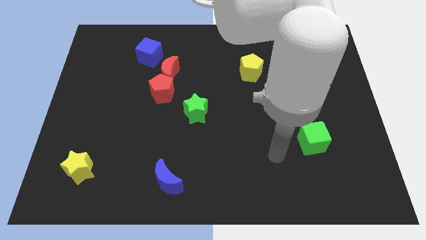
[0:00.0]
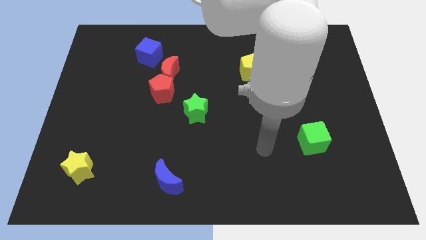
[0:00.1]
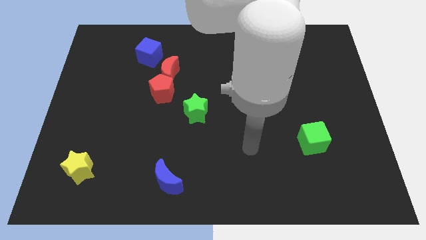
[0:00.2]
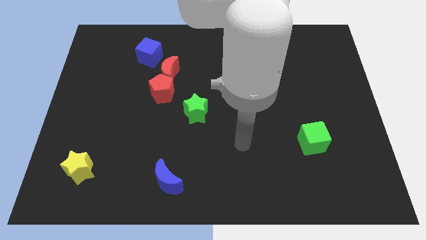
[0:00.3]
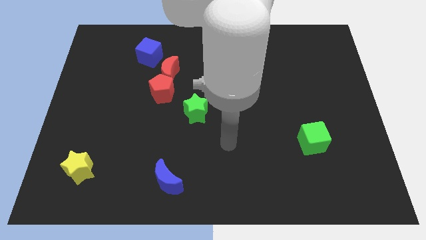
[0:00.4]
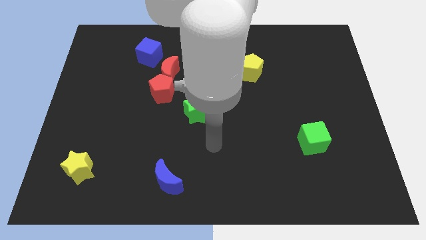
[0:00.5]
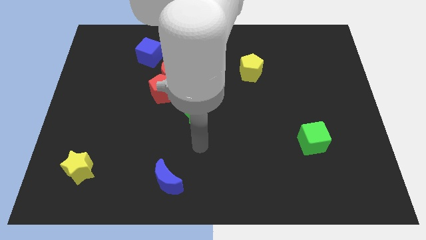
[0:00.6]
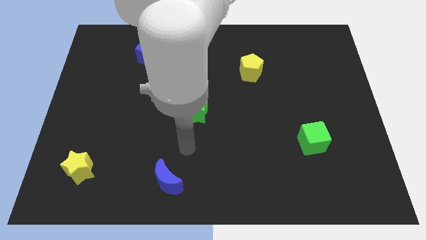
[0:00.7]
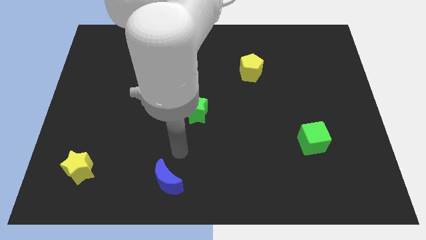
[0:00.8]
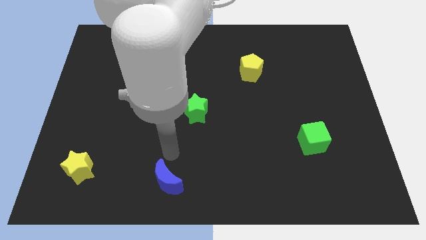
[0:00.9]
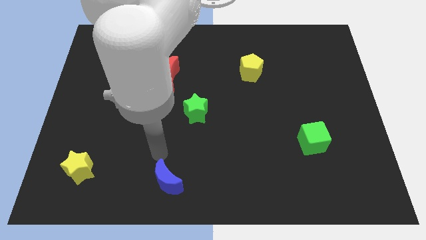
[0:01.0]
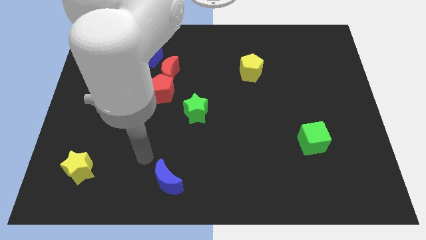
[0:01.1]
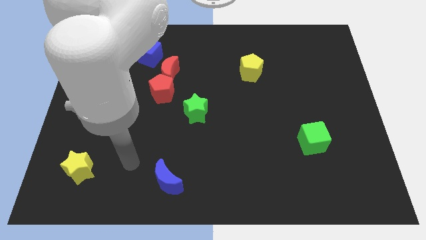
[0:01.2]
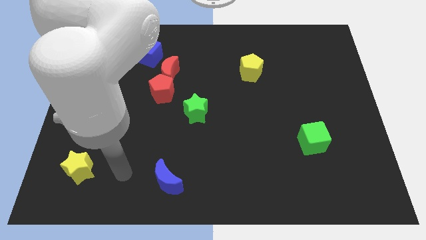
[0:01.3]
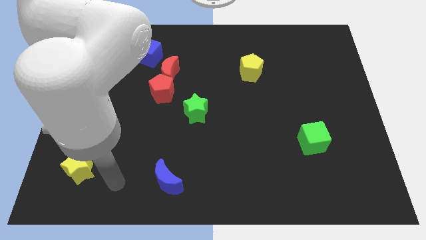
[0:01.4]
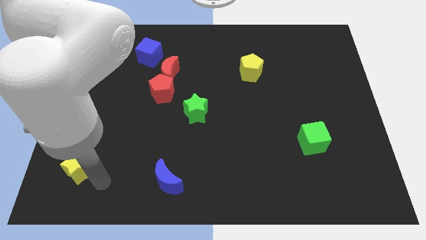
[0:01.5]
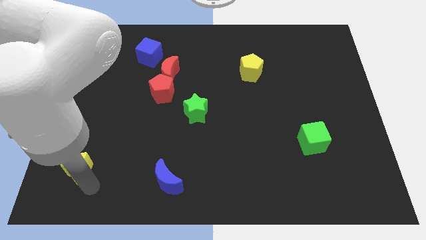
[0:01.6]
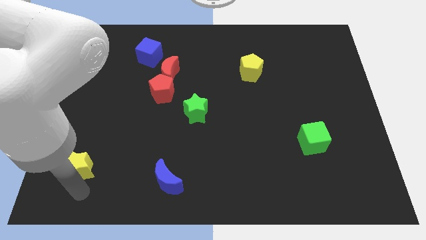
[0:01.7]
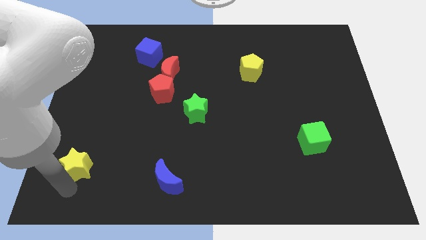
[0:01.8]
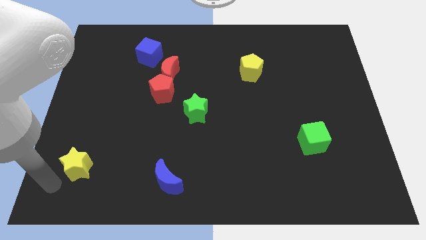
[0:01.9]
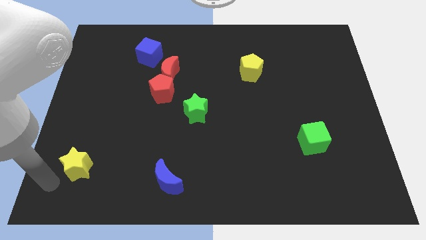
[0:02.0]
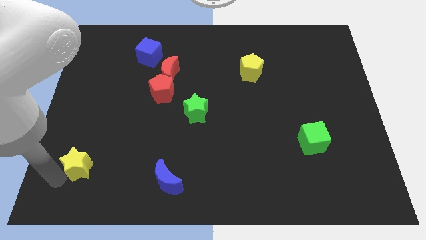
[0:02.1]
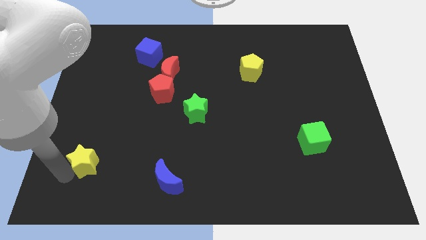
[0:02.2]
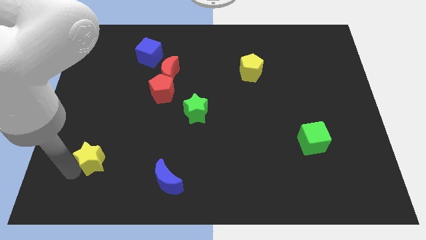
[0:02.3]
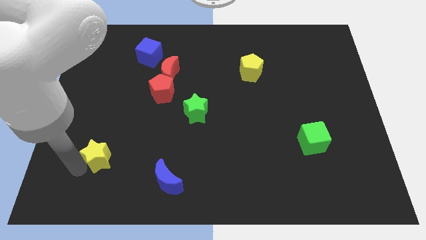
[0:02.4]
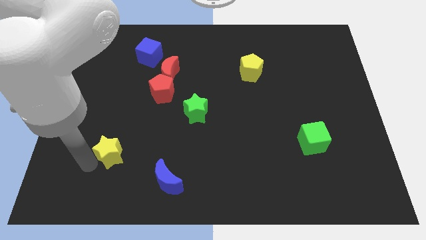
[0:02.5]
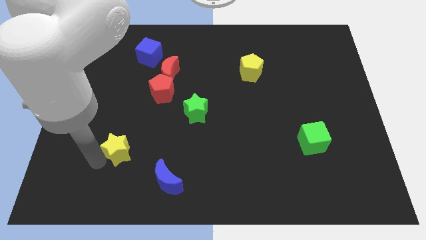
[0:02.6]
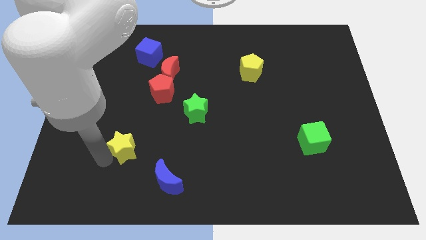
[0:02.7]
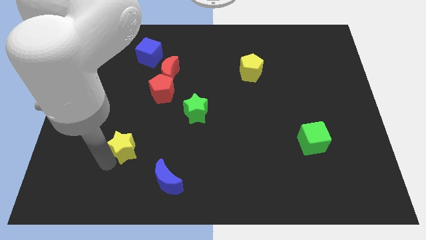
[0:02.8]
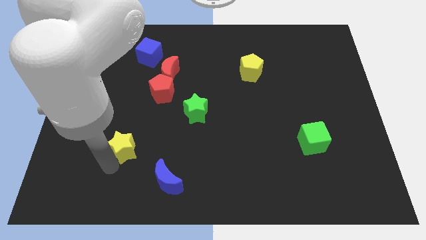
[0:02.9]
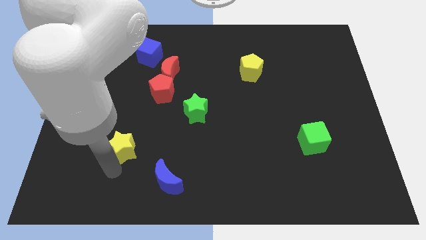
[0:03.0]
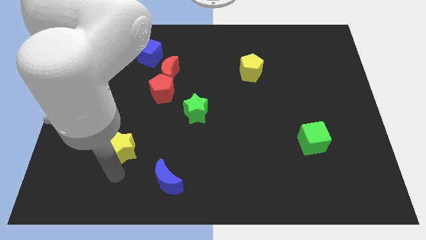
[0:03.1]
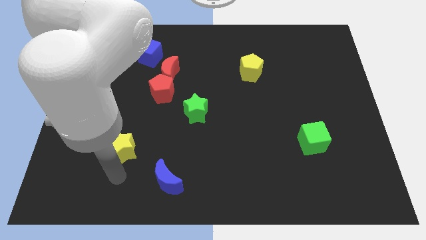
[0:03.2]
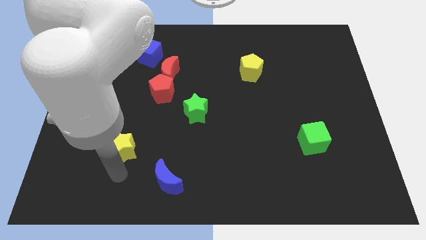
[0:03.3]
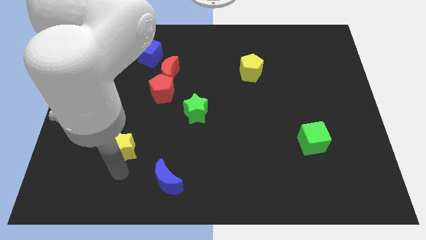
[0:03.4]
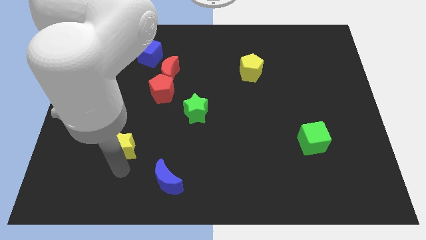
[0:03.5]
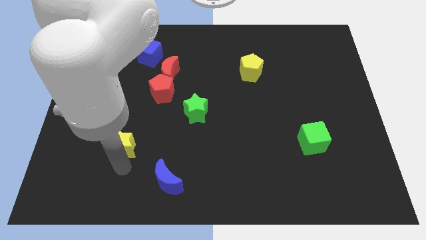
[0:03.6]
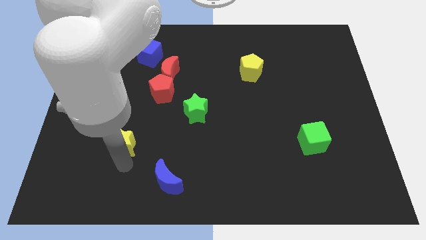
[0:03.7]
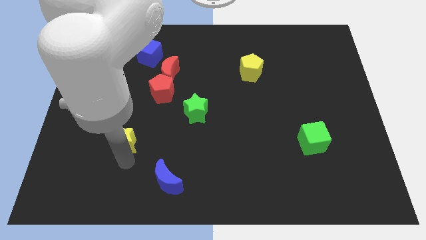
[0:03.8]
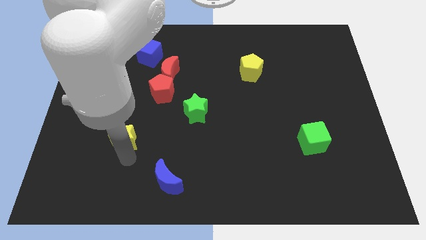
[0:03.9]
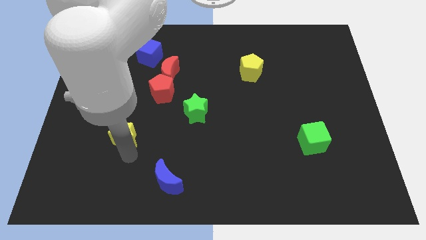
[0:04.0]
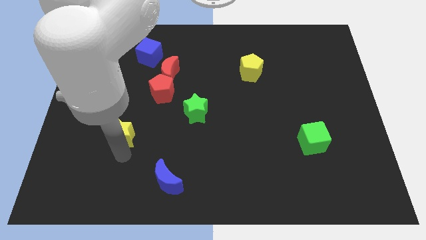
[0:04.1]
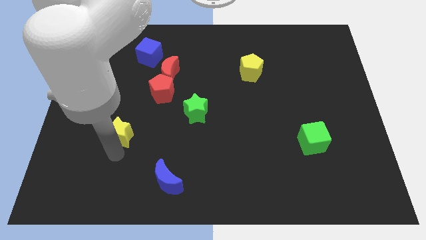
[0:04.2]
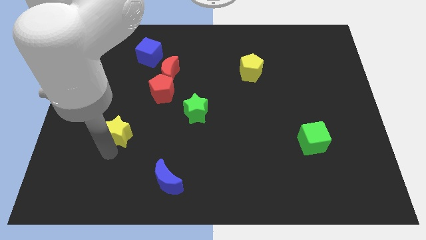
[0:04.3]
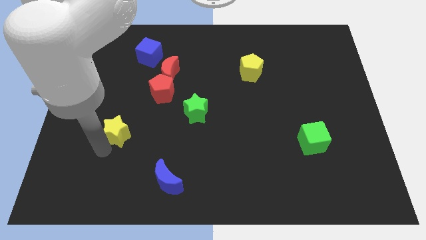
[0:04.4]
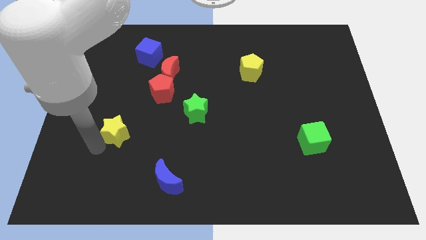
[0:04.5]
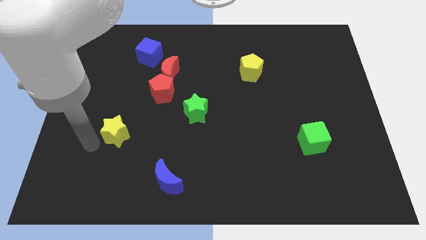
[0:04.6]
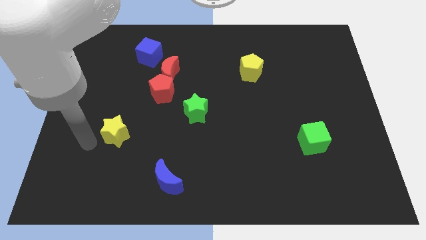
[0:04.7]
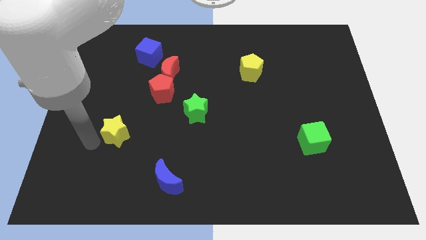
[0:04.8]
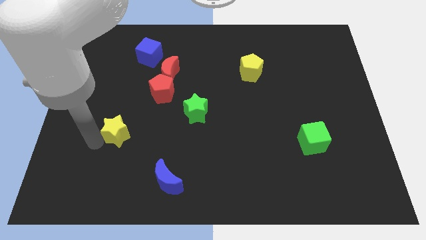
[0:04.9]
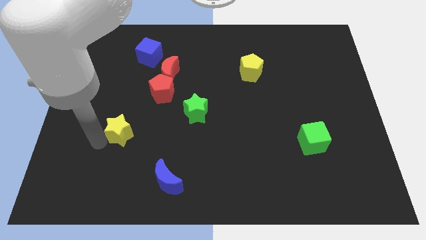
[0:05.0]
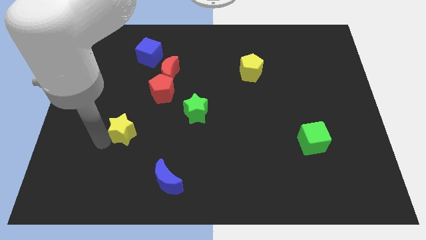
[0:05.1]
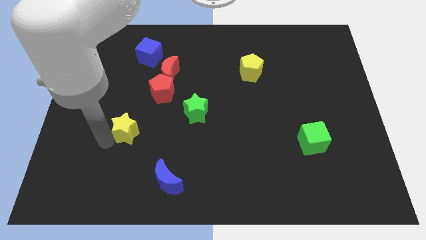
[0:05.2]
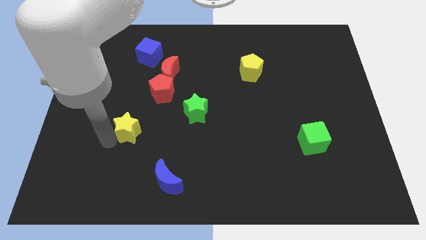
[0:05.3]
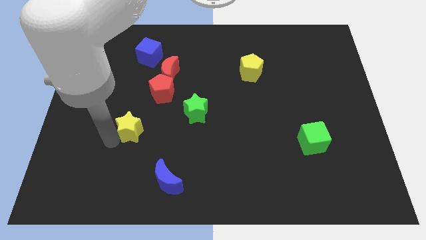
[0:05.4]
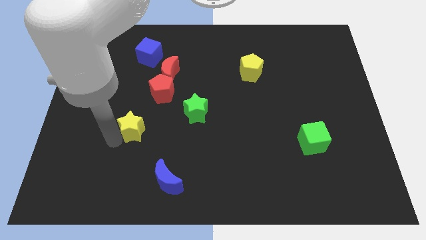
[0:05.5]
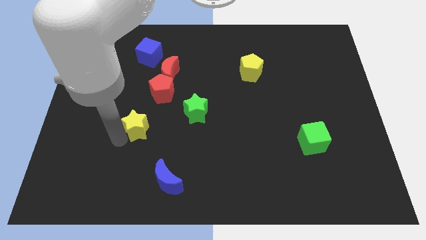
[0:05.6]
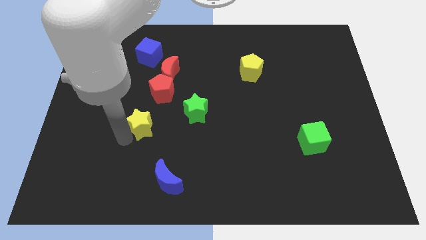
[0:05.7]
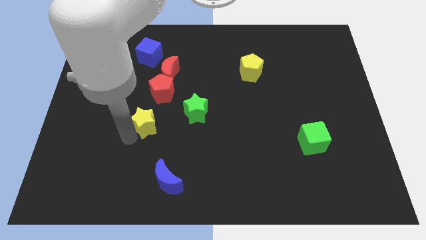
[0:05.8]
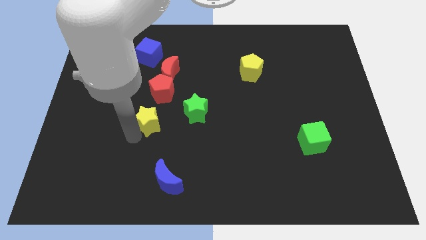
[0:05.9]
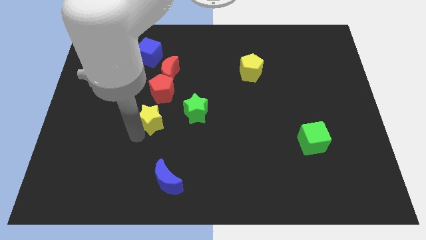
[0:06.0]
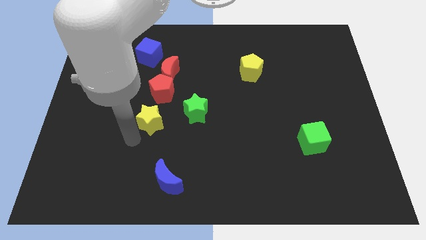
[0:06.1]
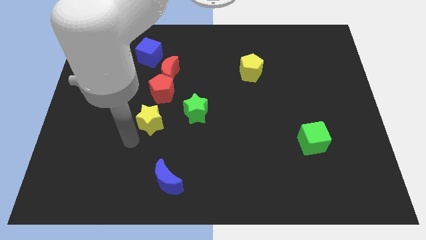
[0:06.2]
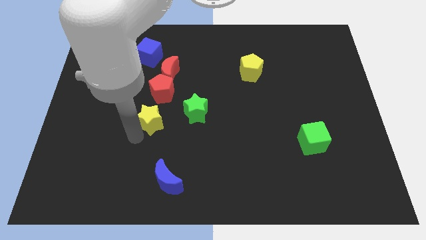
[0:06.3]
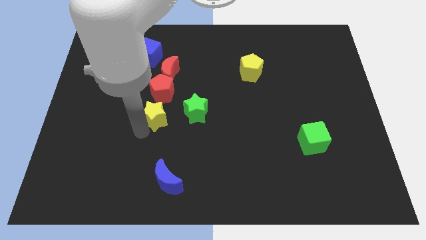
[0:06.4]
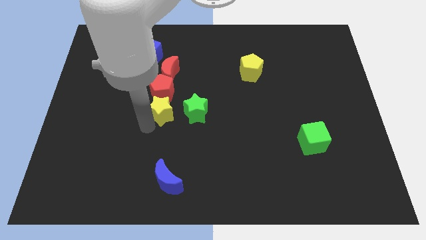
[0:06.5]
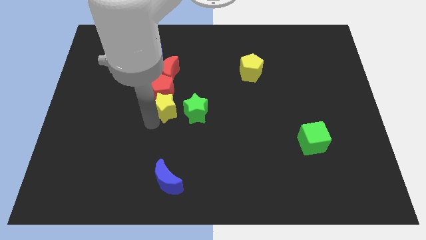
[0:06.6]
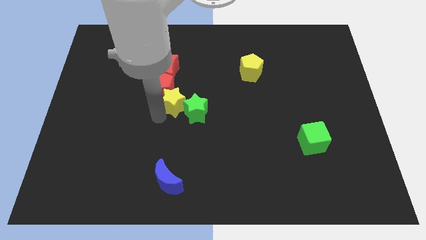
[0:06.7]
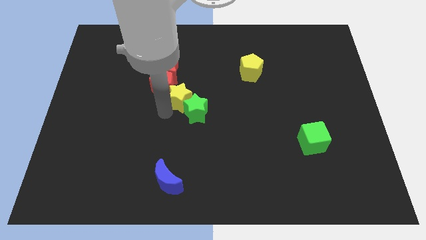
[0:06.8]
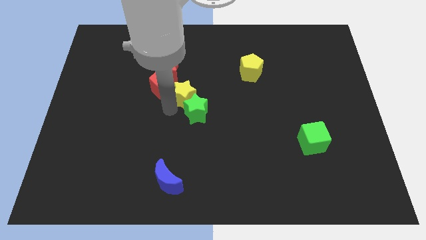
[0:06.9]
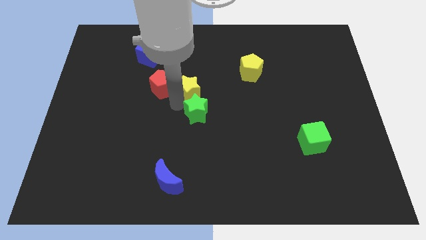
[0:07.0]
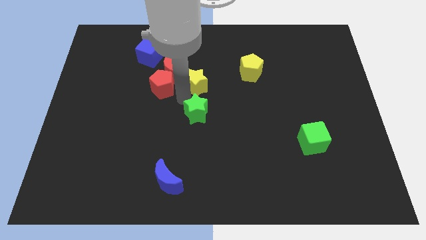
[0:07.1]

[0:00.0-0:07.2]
move the yellow star left of the yellow pentagon

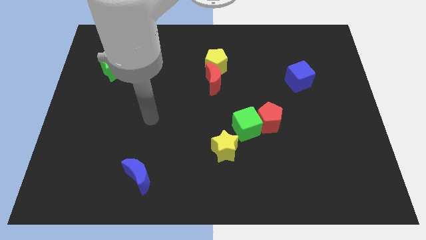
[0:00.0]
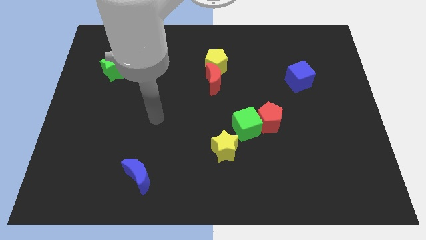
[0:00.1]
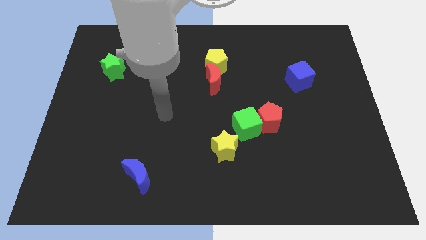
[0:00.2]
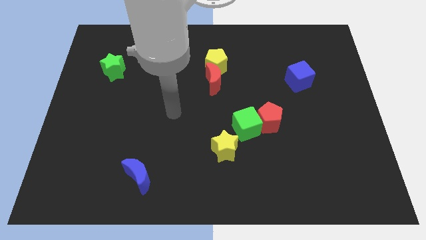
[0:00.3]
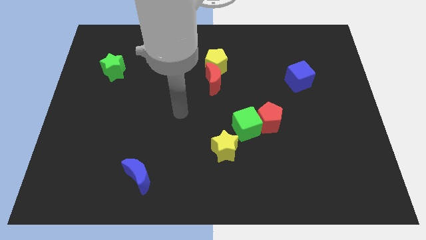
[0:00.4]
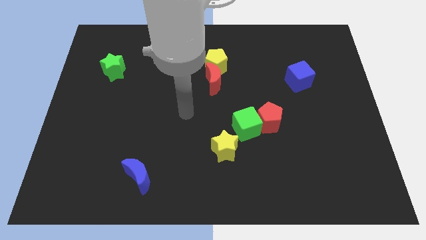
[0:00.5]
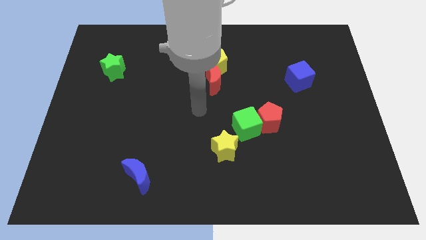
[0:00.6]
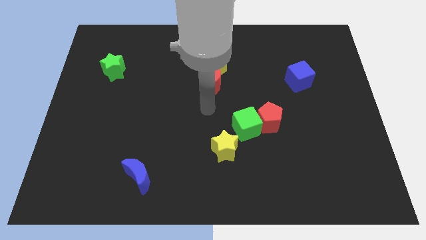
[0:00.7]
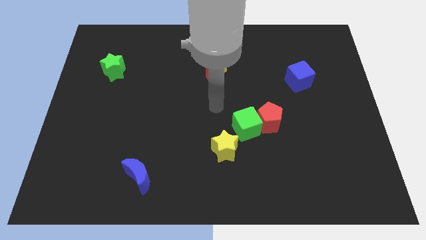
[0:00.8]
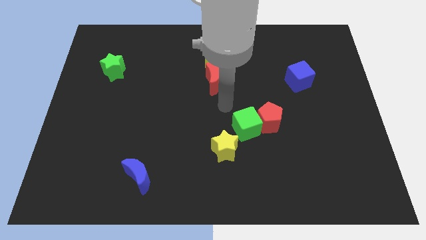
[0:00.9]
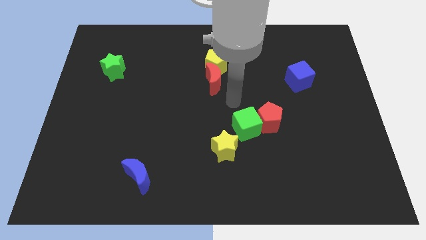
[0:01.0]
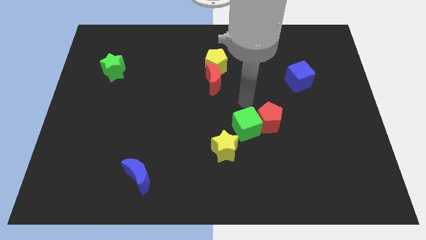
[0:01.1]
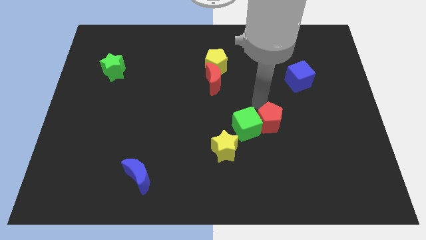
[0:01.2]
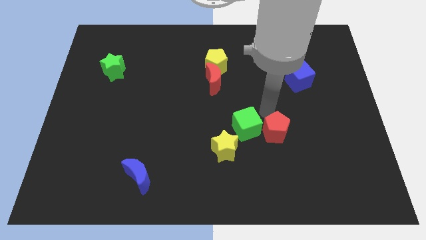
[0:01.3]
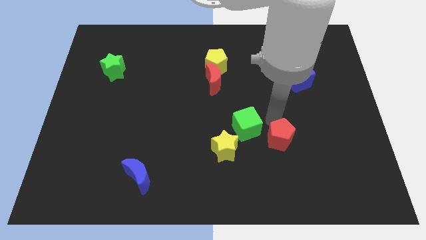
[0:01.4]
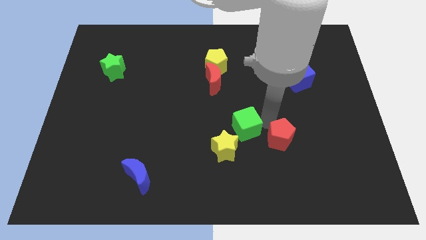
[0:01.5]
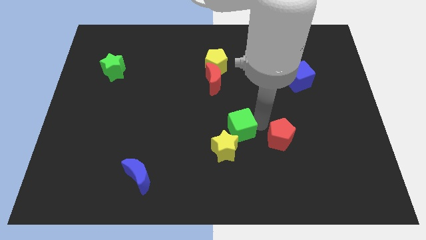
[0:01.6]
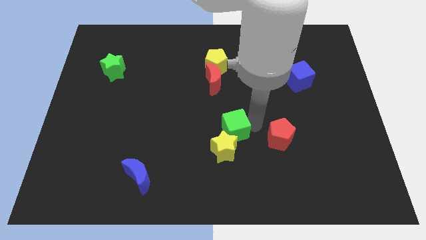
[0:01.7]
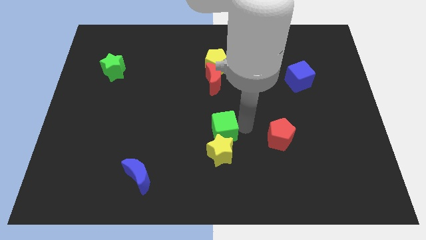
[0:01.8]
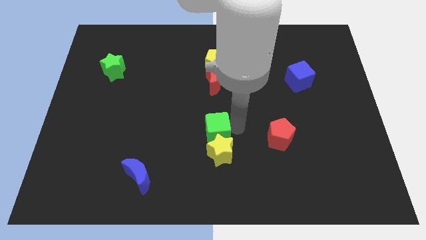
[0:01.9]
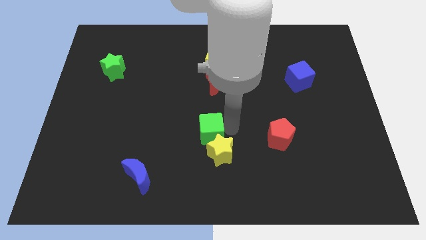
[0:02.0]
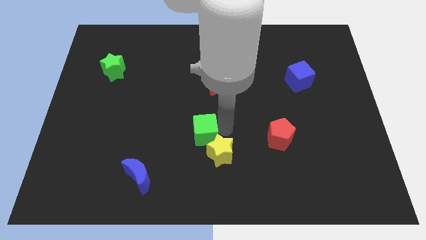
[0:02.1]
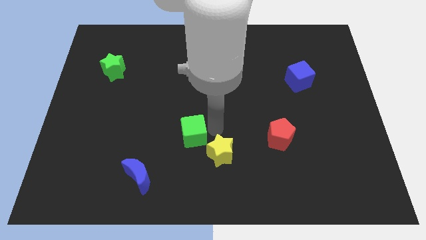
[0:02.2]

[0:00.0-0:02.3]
put the green cube just left of the yellow star
